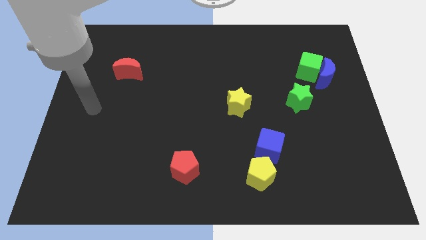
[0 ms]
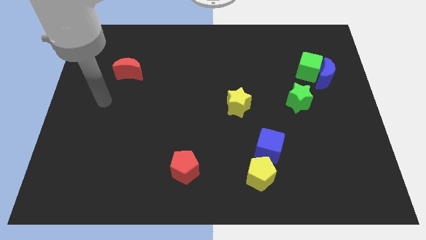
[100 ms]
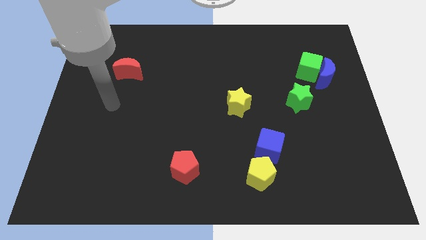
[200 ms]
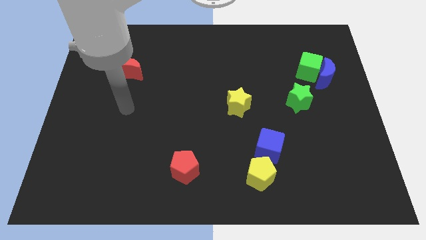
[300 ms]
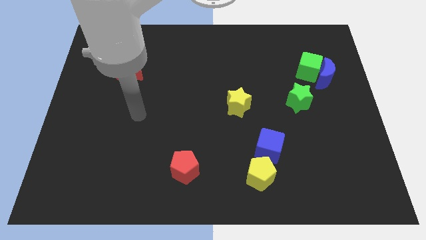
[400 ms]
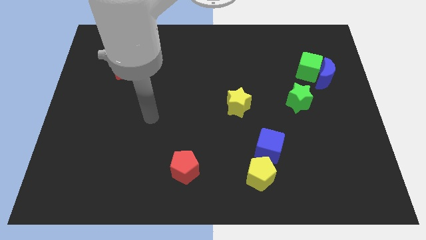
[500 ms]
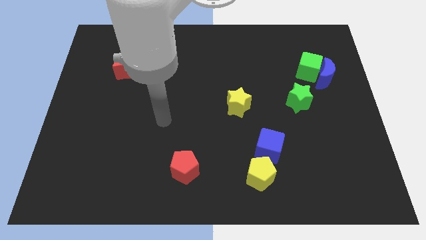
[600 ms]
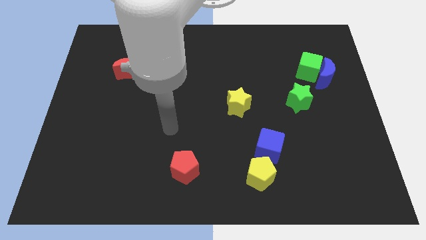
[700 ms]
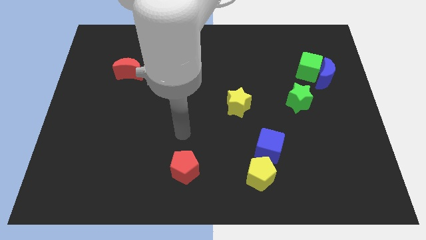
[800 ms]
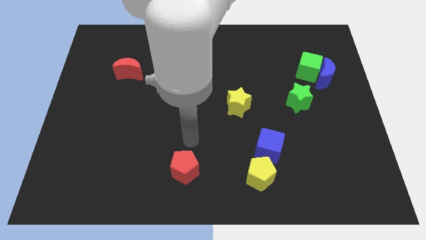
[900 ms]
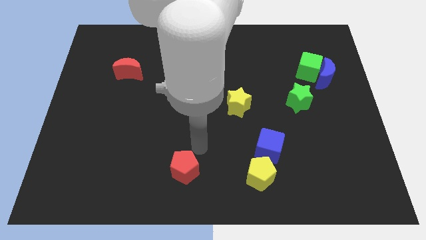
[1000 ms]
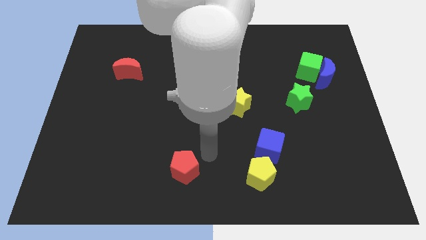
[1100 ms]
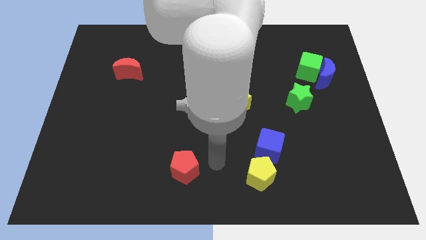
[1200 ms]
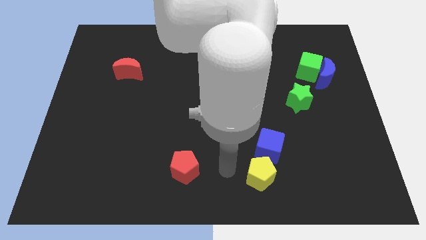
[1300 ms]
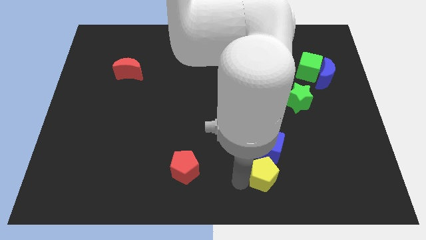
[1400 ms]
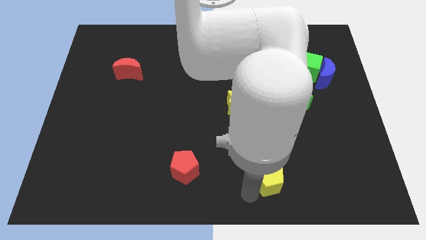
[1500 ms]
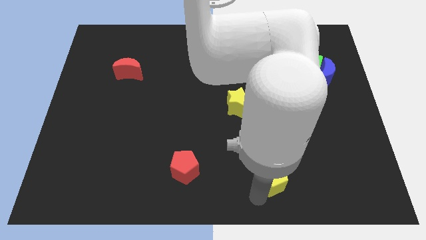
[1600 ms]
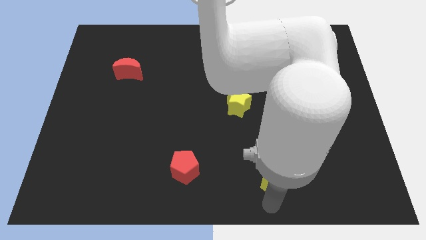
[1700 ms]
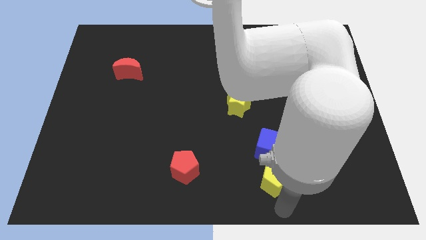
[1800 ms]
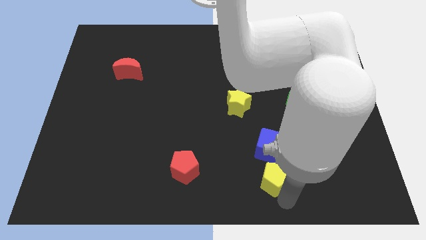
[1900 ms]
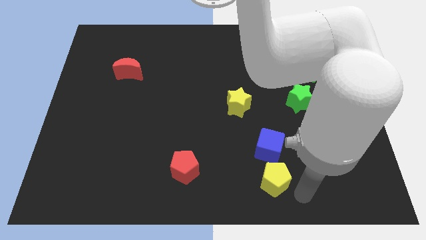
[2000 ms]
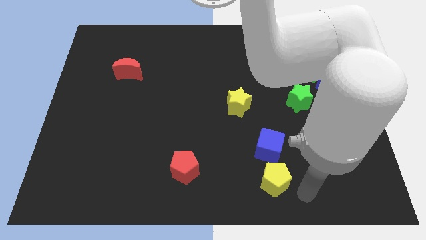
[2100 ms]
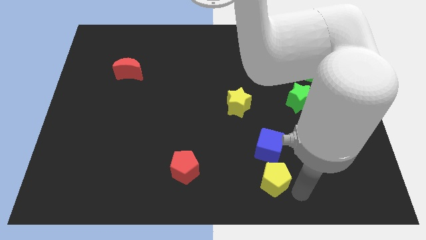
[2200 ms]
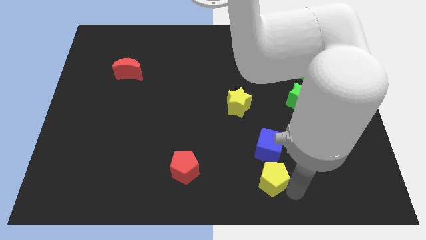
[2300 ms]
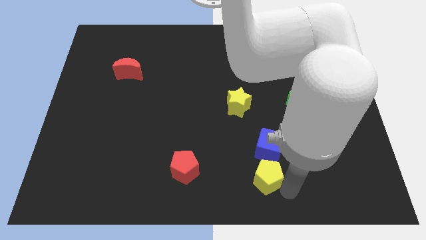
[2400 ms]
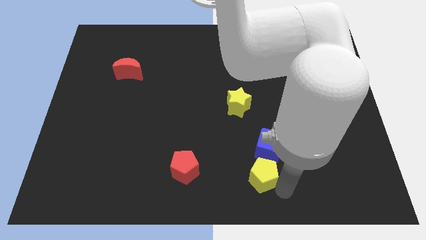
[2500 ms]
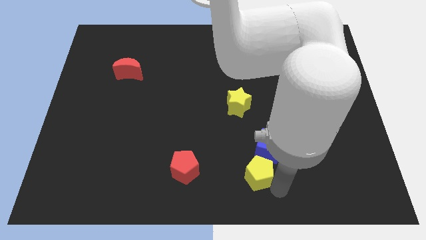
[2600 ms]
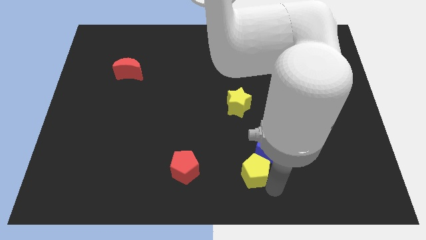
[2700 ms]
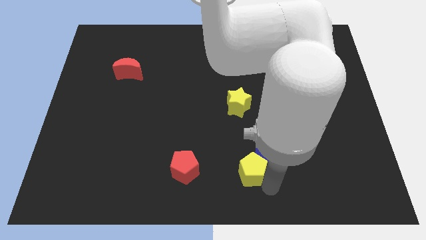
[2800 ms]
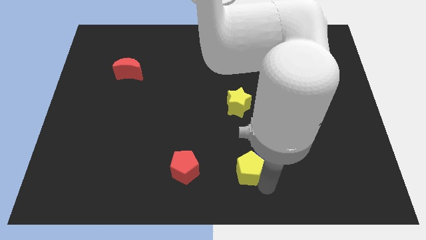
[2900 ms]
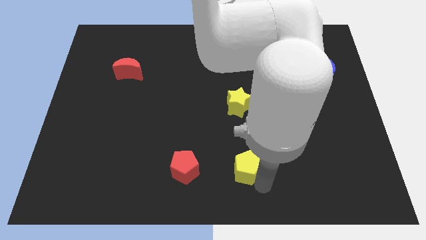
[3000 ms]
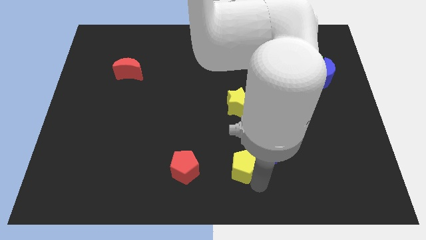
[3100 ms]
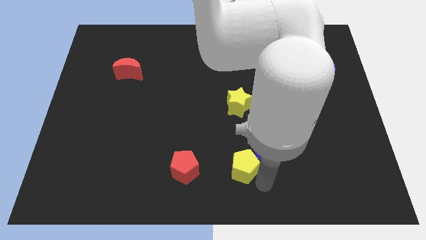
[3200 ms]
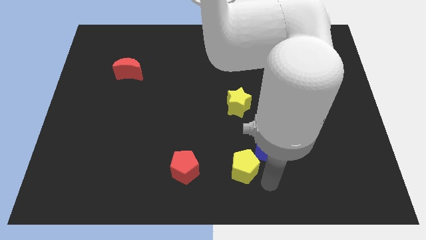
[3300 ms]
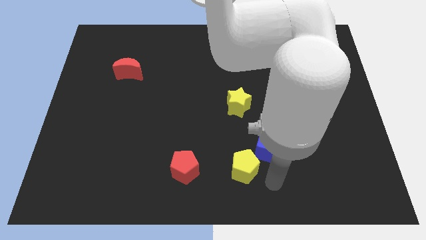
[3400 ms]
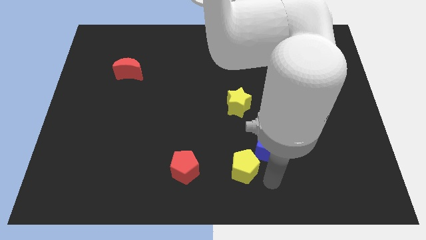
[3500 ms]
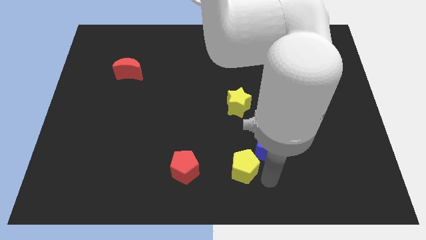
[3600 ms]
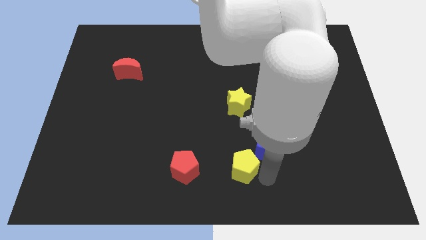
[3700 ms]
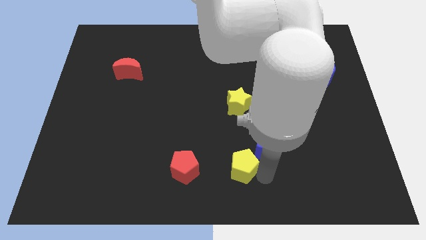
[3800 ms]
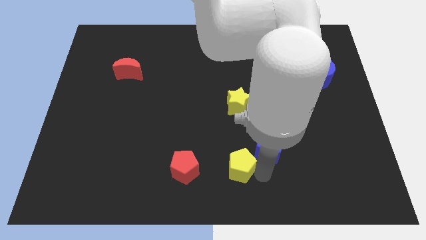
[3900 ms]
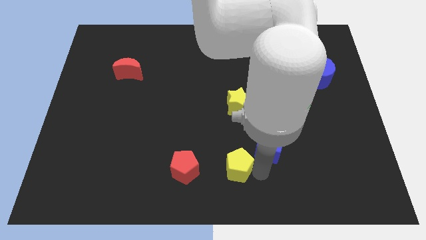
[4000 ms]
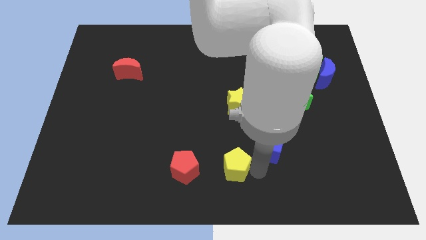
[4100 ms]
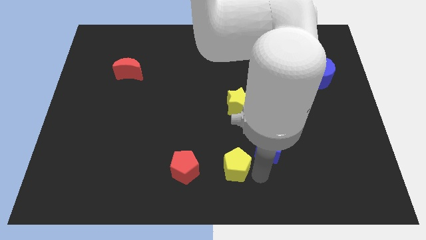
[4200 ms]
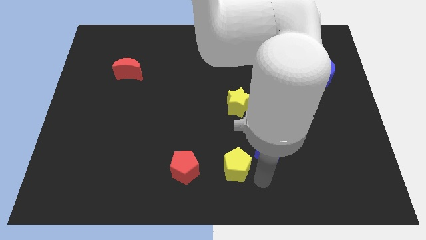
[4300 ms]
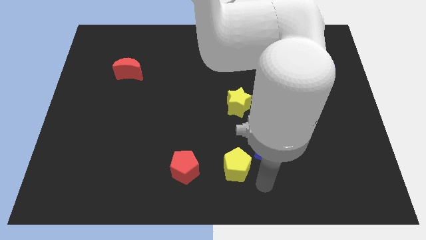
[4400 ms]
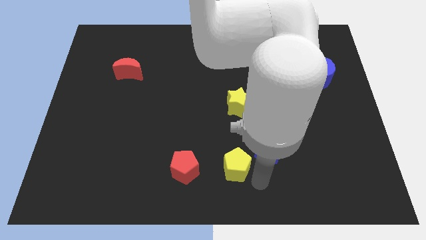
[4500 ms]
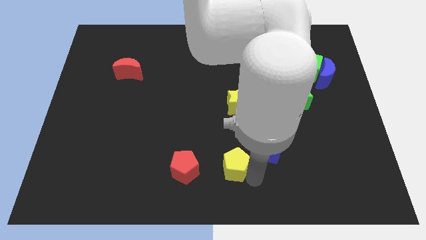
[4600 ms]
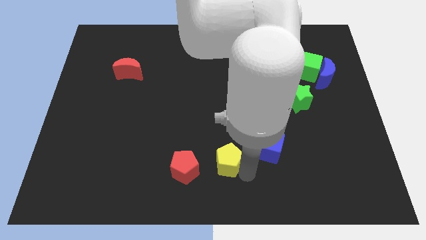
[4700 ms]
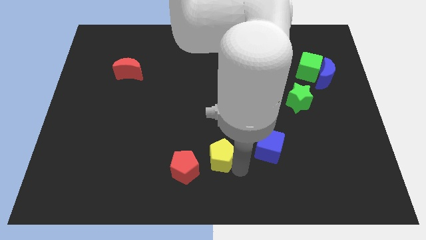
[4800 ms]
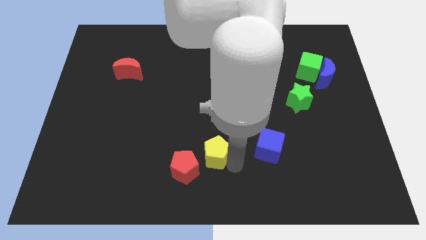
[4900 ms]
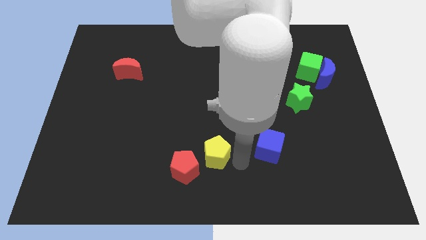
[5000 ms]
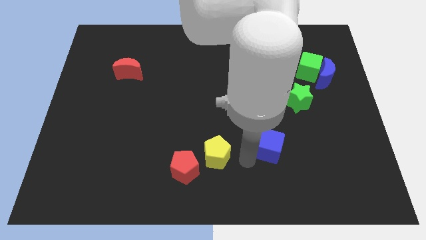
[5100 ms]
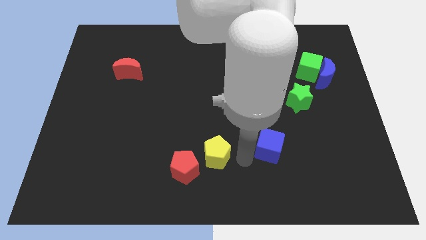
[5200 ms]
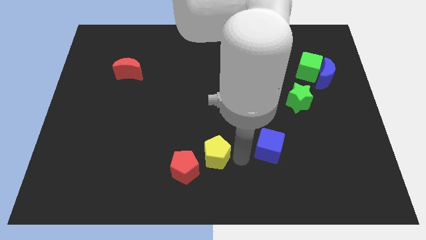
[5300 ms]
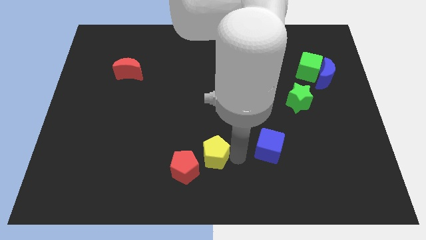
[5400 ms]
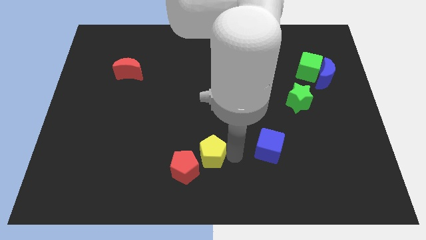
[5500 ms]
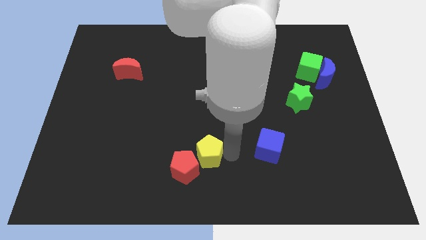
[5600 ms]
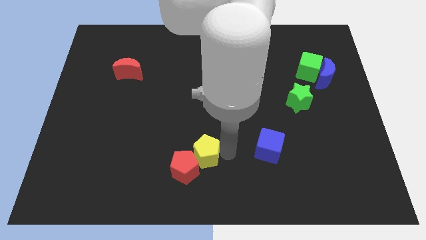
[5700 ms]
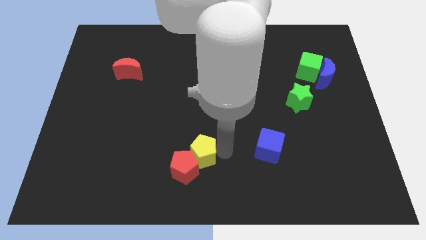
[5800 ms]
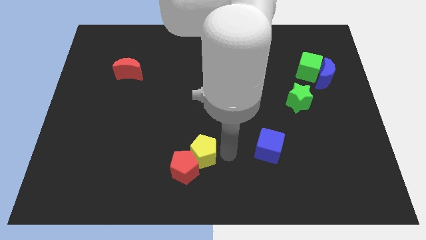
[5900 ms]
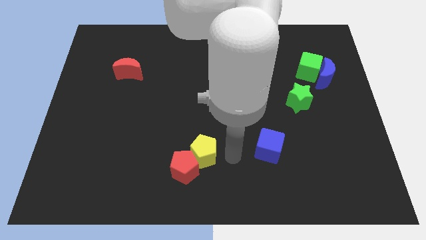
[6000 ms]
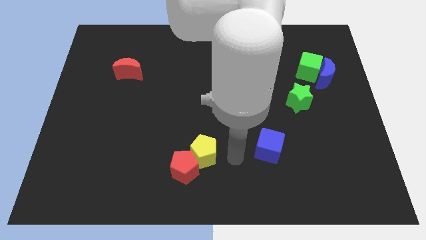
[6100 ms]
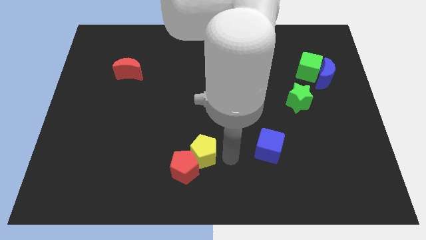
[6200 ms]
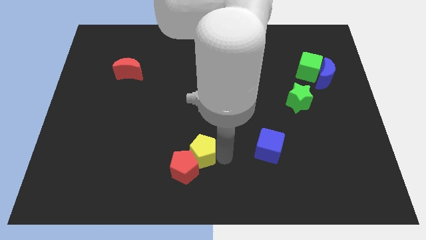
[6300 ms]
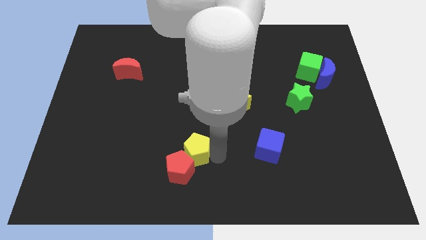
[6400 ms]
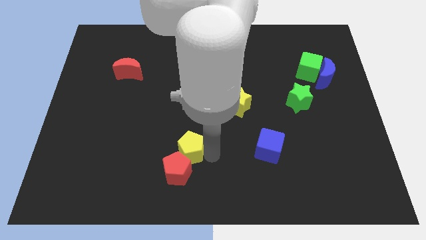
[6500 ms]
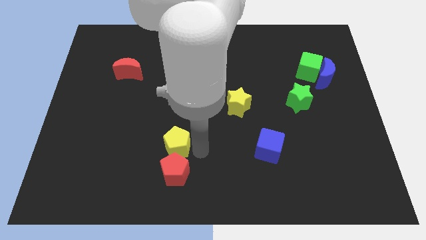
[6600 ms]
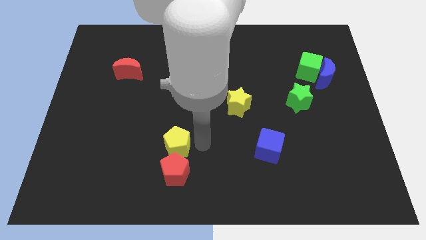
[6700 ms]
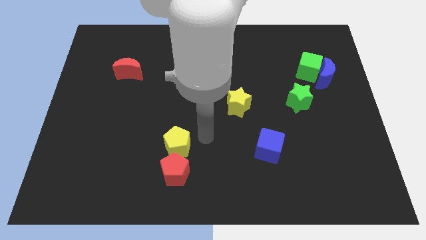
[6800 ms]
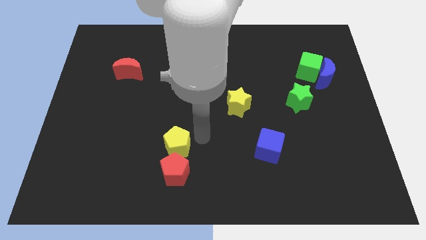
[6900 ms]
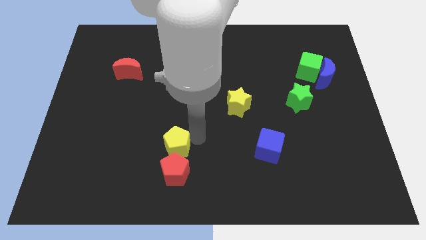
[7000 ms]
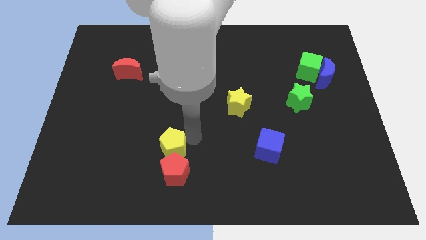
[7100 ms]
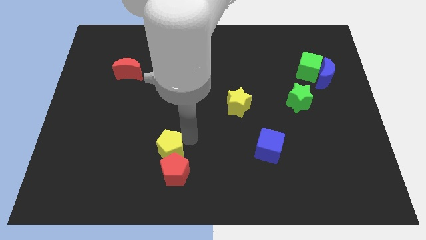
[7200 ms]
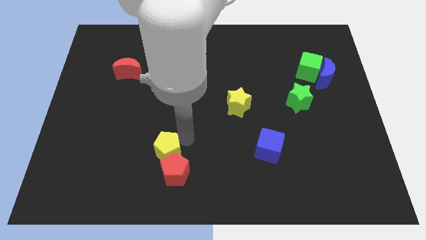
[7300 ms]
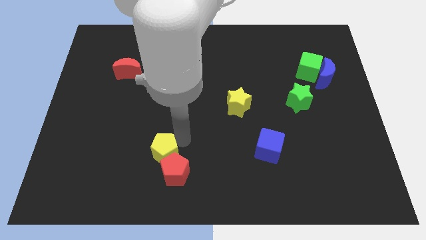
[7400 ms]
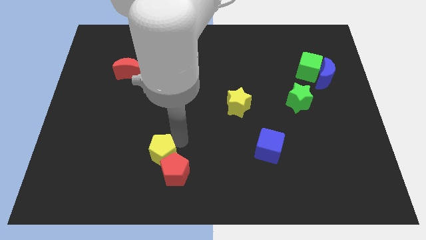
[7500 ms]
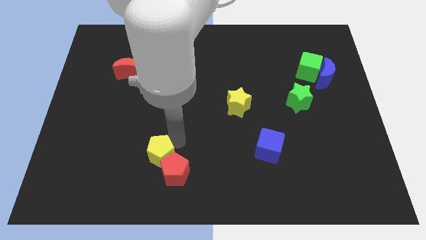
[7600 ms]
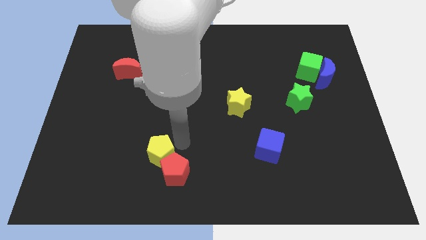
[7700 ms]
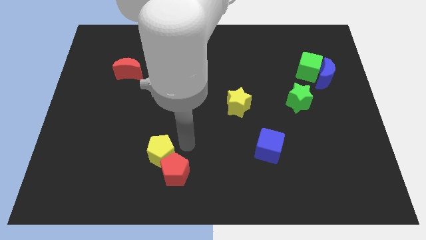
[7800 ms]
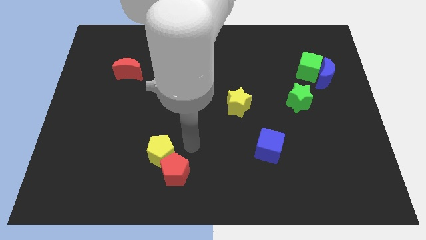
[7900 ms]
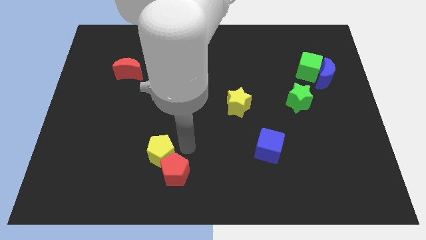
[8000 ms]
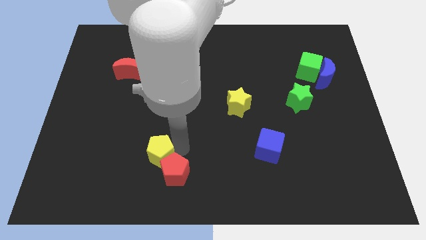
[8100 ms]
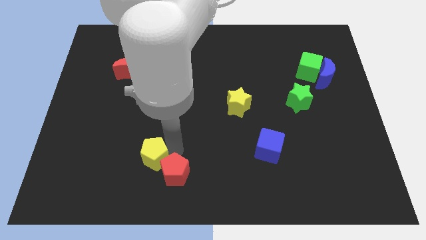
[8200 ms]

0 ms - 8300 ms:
move the yellow pentagon left
